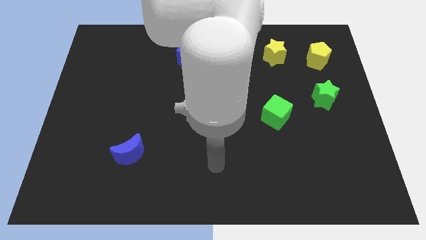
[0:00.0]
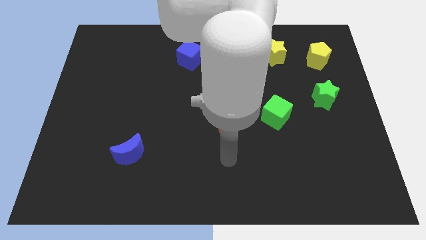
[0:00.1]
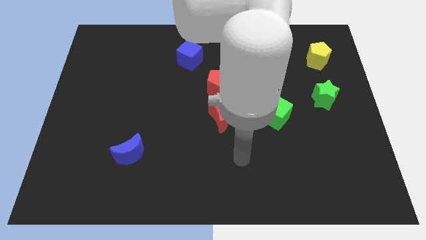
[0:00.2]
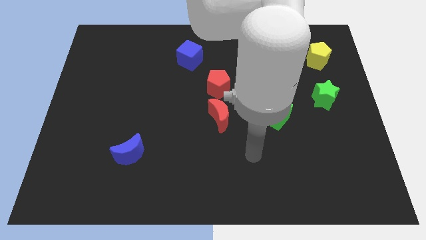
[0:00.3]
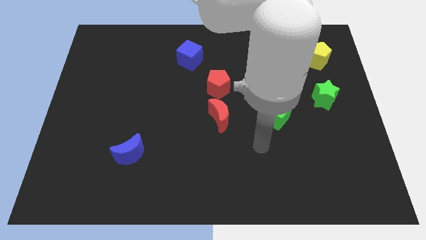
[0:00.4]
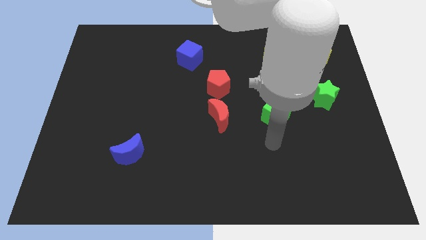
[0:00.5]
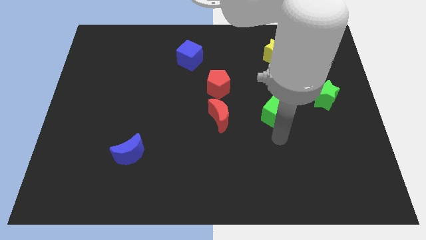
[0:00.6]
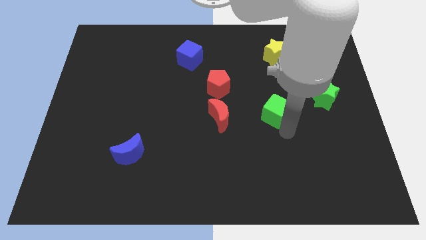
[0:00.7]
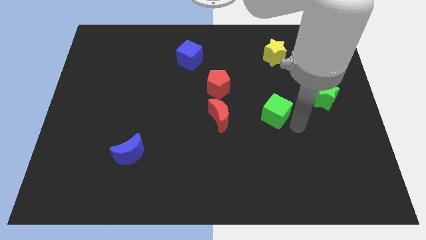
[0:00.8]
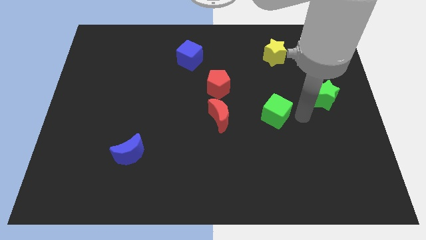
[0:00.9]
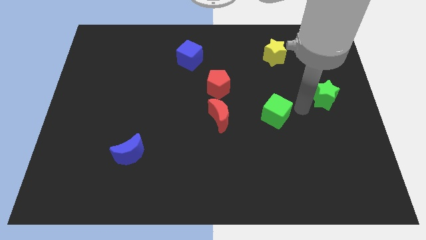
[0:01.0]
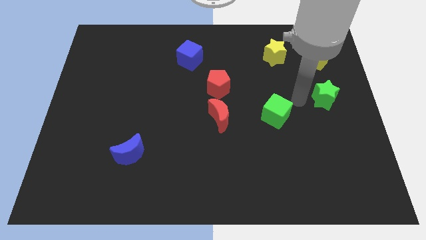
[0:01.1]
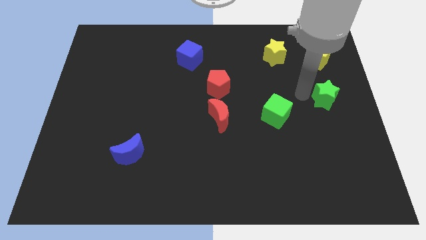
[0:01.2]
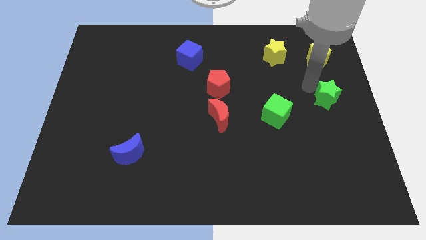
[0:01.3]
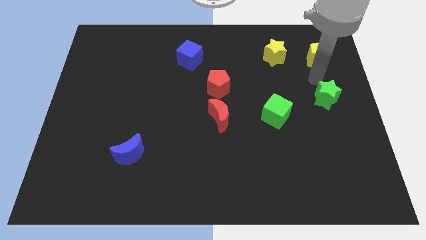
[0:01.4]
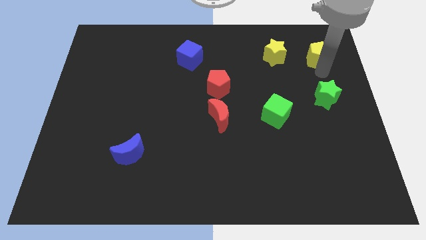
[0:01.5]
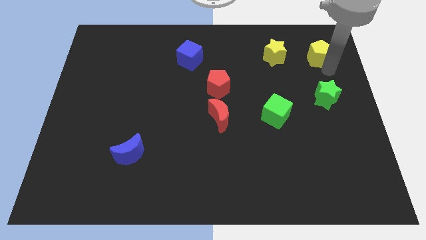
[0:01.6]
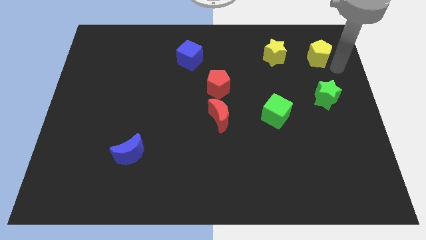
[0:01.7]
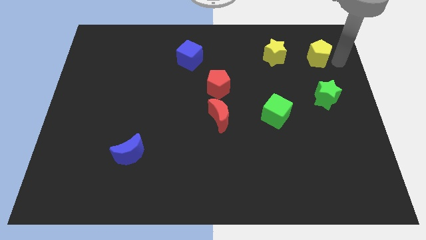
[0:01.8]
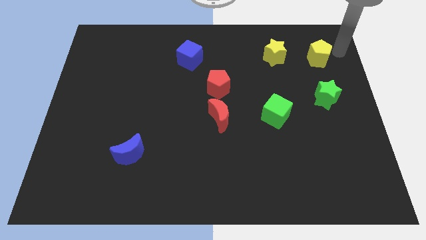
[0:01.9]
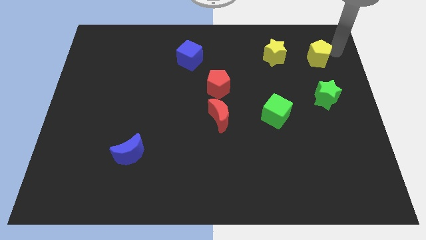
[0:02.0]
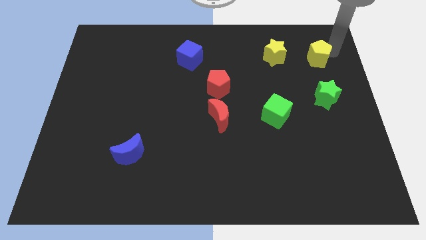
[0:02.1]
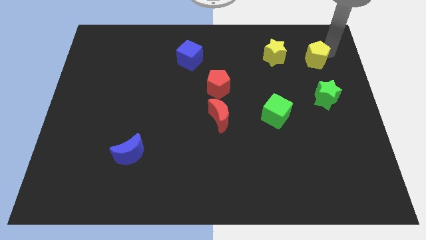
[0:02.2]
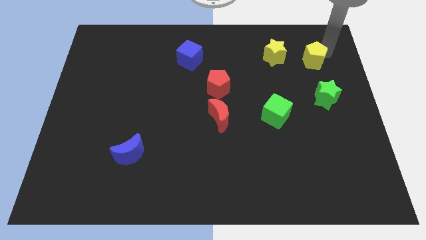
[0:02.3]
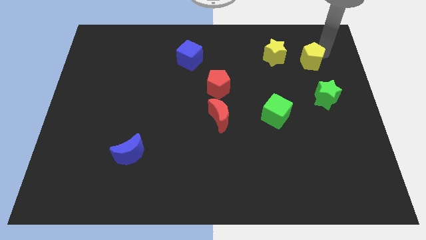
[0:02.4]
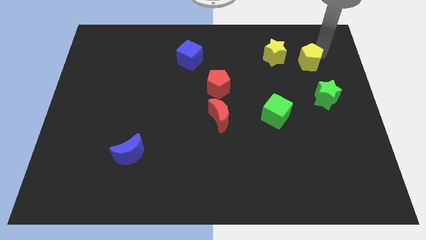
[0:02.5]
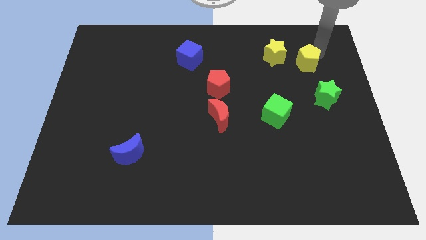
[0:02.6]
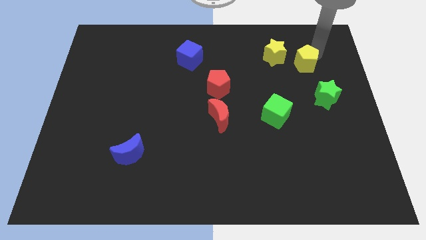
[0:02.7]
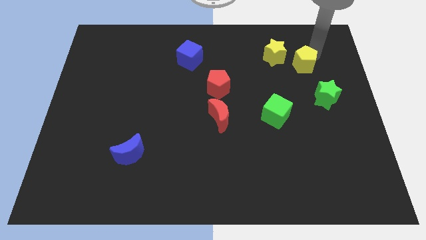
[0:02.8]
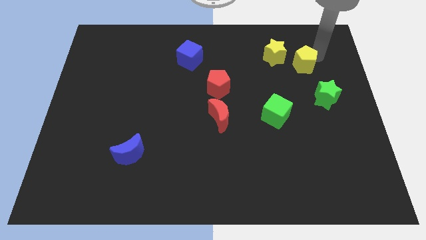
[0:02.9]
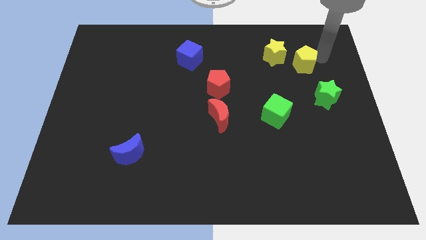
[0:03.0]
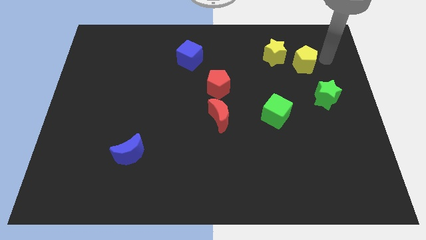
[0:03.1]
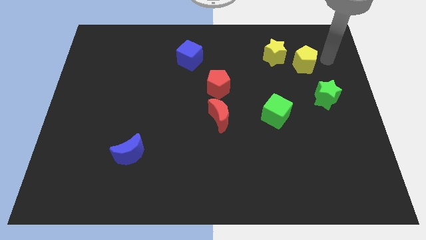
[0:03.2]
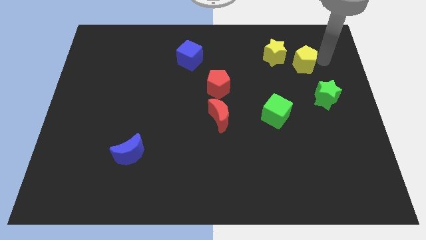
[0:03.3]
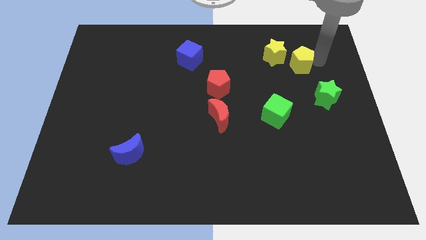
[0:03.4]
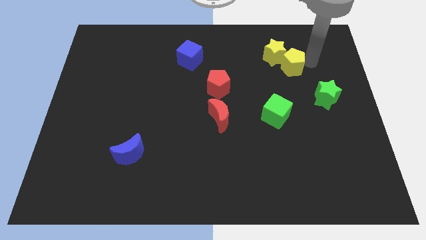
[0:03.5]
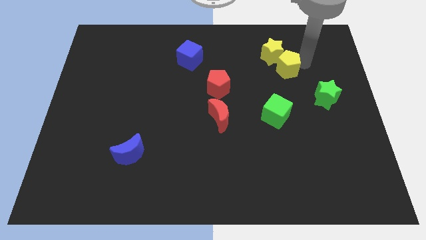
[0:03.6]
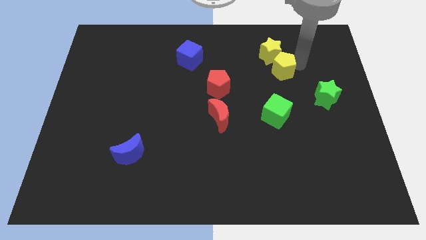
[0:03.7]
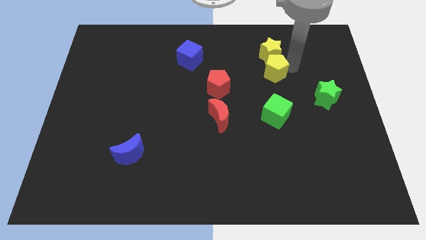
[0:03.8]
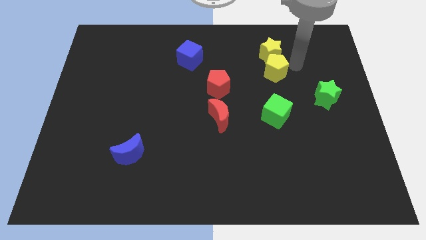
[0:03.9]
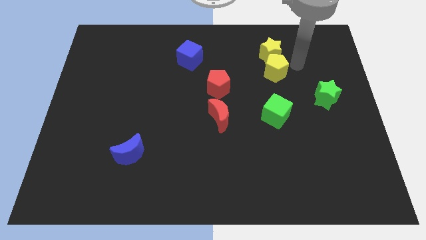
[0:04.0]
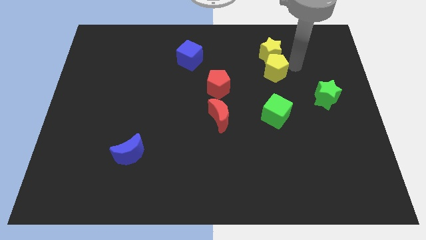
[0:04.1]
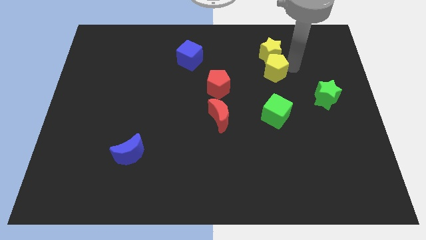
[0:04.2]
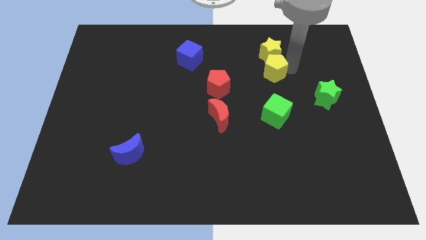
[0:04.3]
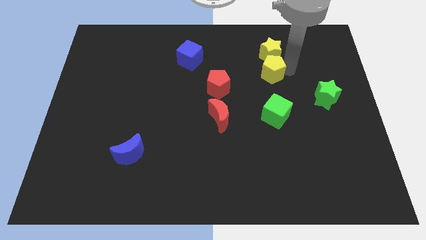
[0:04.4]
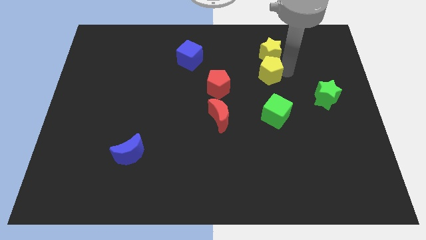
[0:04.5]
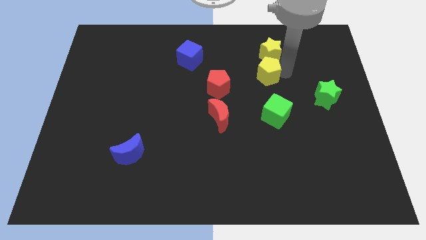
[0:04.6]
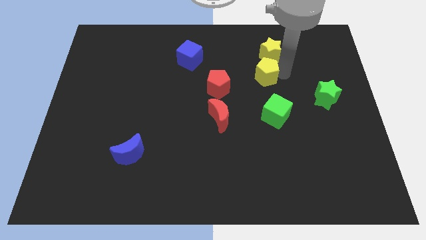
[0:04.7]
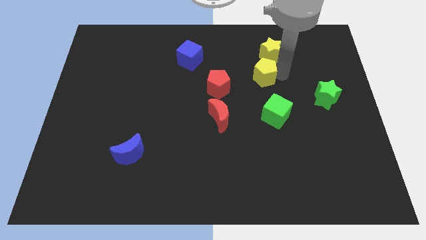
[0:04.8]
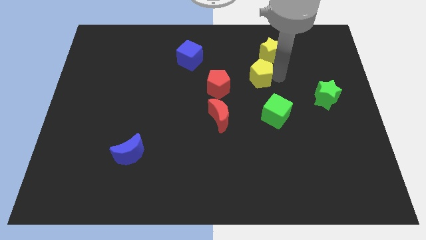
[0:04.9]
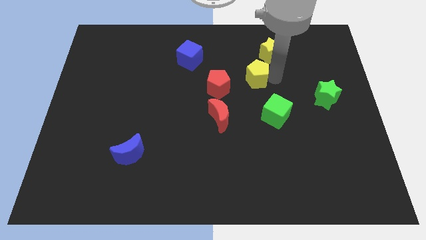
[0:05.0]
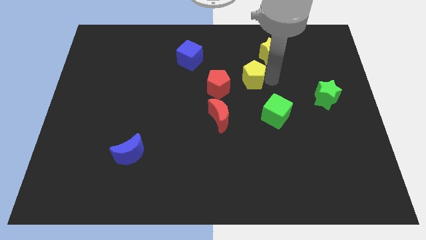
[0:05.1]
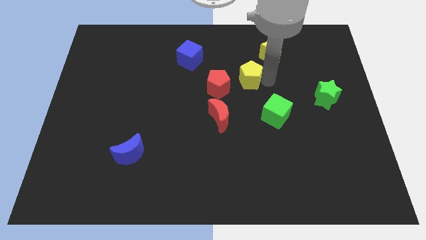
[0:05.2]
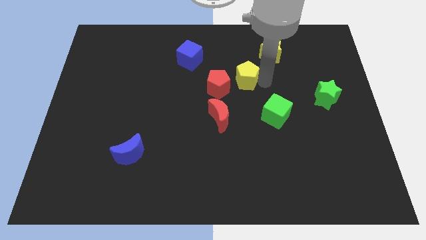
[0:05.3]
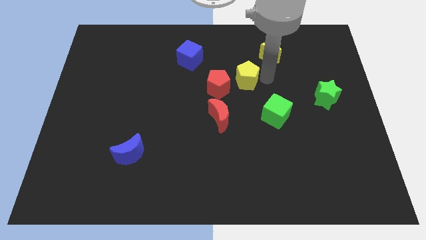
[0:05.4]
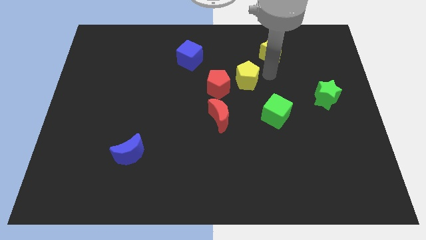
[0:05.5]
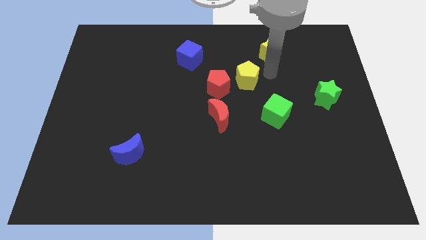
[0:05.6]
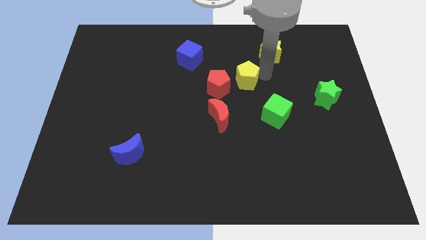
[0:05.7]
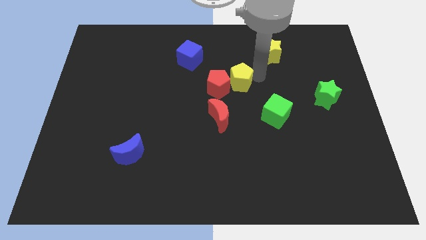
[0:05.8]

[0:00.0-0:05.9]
put the yellow pentagon to the red pentagon

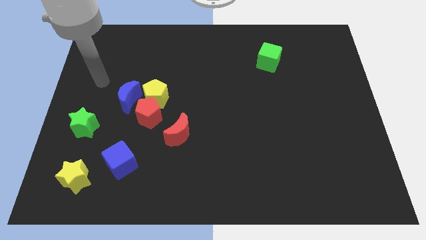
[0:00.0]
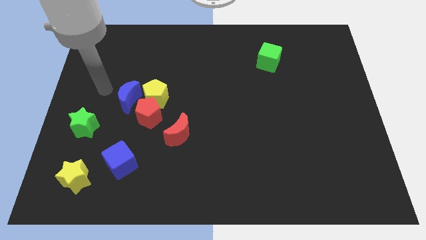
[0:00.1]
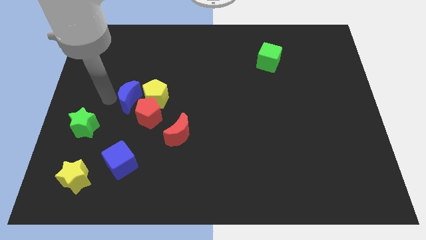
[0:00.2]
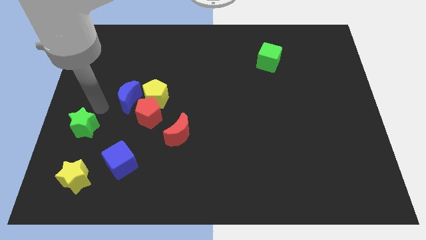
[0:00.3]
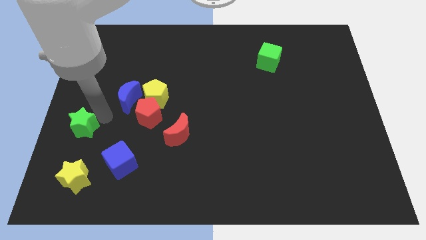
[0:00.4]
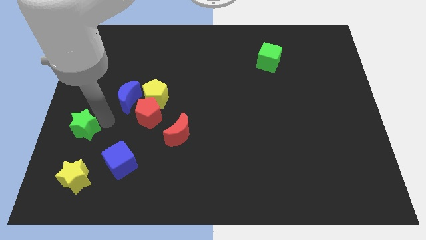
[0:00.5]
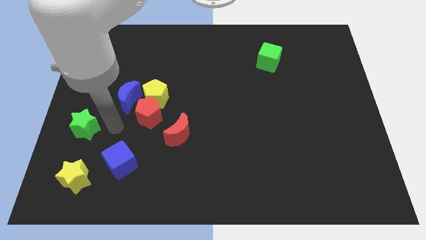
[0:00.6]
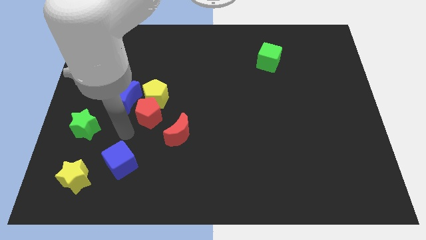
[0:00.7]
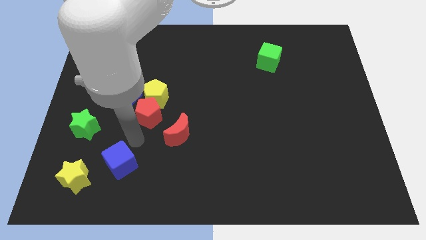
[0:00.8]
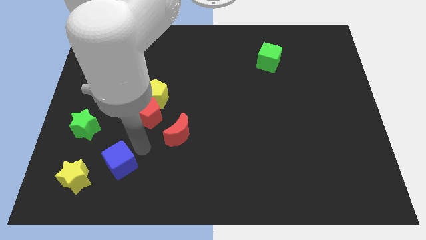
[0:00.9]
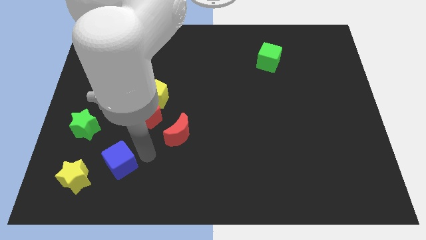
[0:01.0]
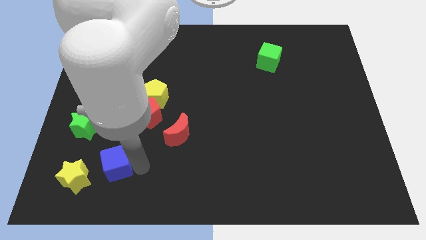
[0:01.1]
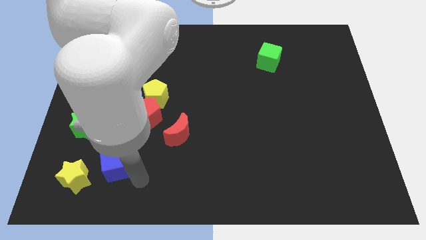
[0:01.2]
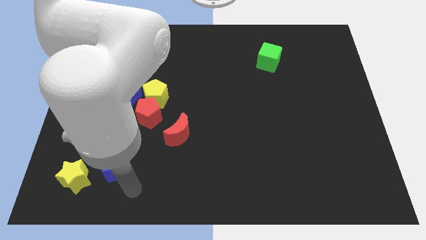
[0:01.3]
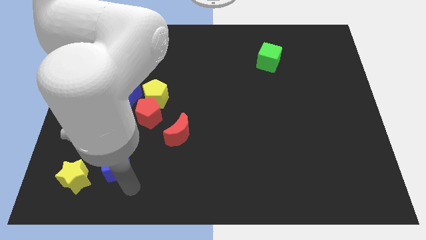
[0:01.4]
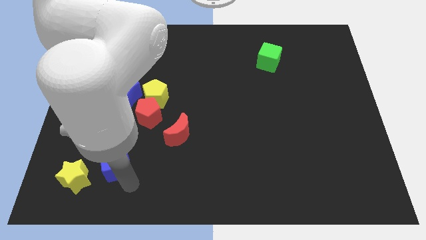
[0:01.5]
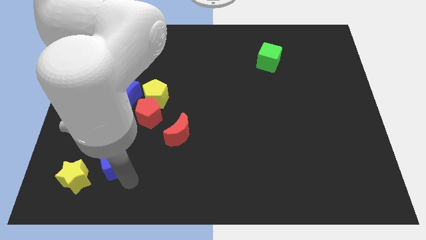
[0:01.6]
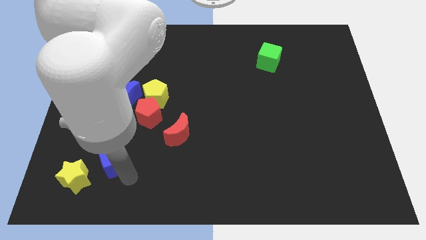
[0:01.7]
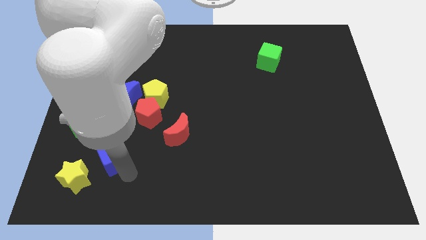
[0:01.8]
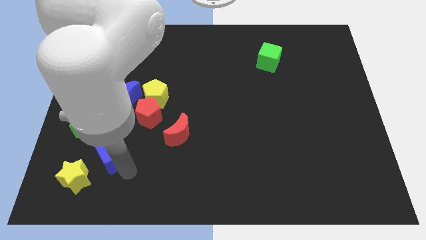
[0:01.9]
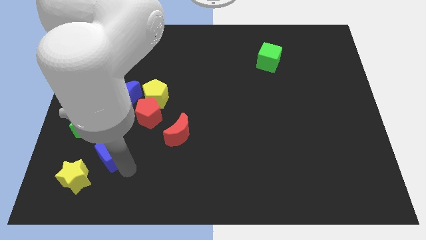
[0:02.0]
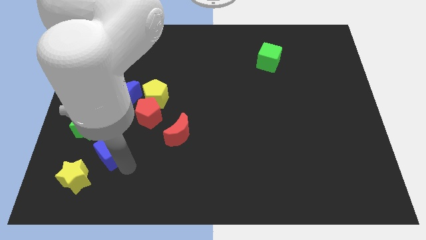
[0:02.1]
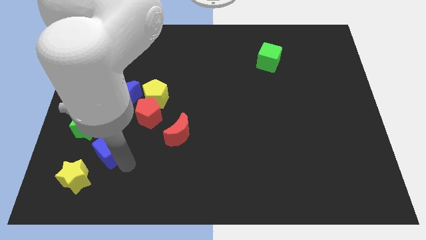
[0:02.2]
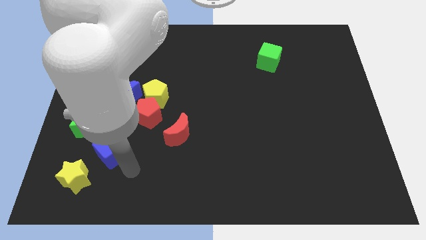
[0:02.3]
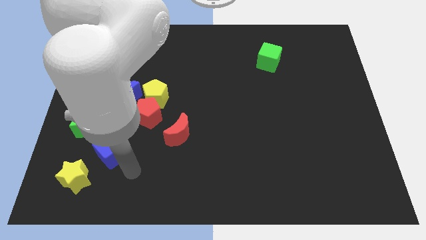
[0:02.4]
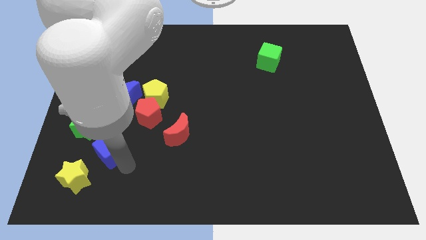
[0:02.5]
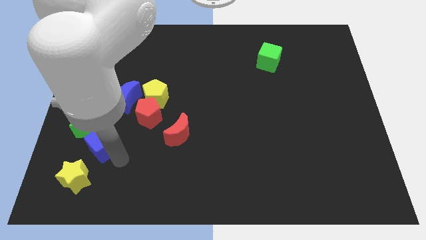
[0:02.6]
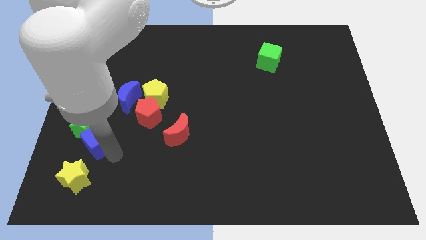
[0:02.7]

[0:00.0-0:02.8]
slide the blue cube towards the green star
